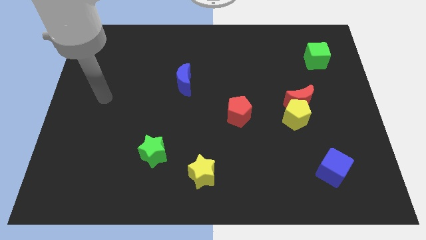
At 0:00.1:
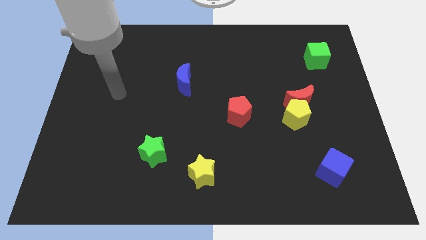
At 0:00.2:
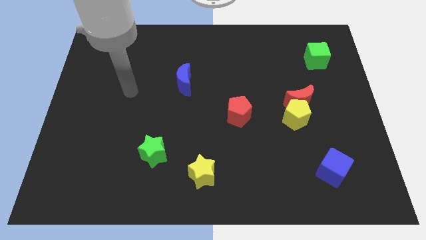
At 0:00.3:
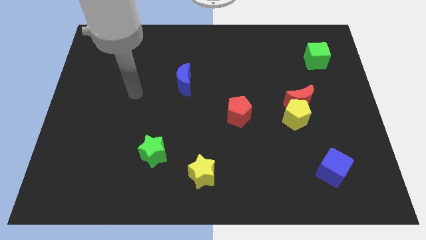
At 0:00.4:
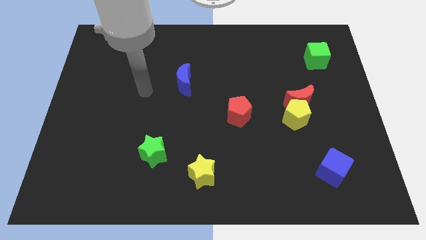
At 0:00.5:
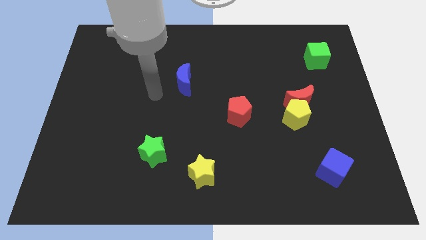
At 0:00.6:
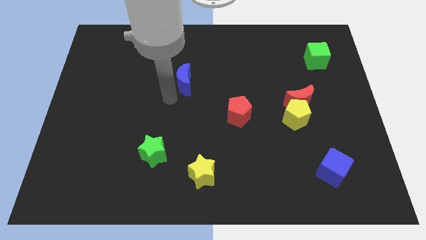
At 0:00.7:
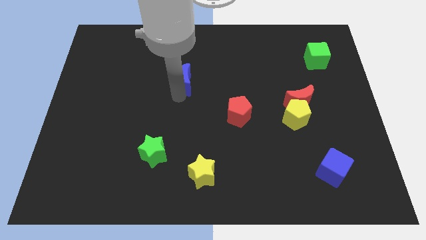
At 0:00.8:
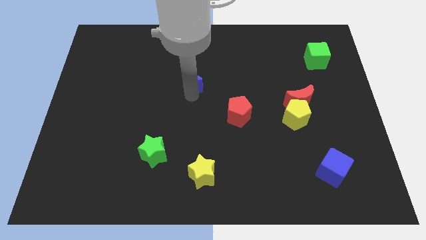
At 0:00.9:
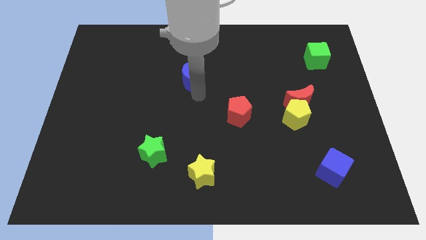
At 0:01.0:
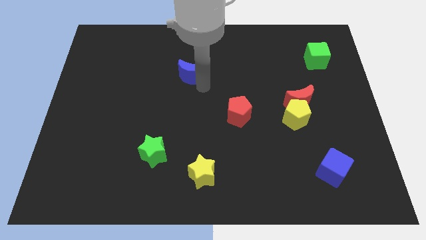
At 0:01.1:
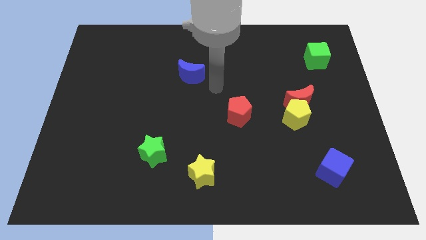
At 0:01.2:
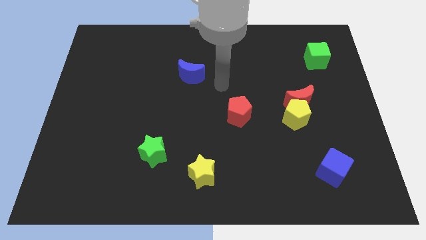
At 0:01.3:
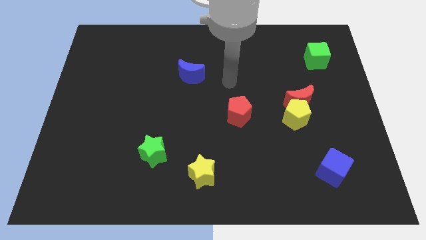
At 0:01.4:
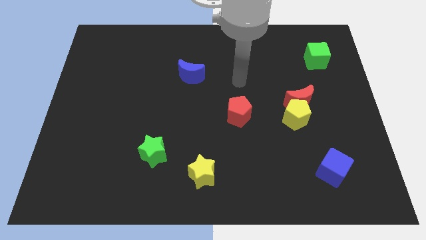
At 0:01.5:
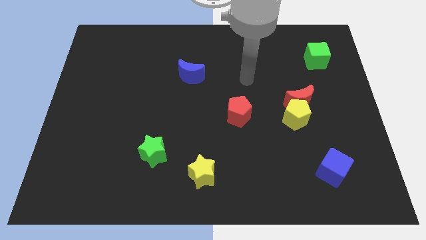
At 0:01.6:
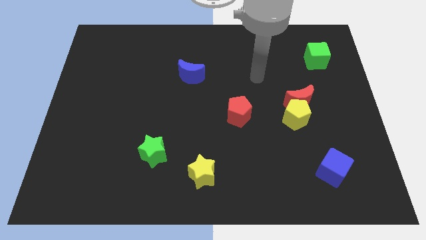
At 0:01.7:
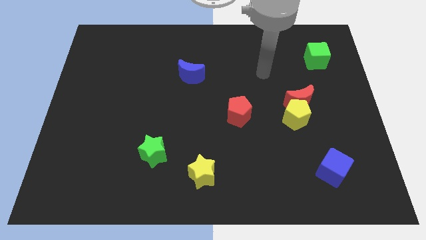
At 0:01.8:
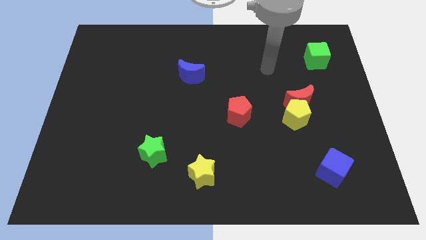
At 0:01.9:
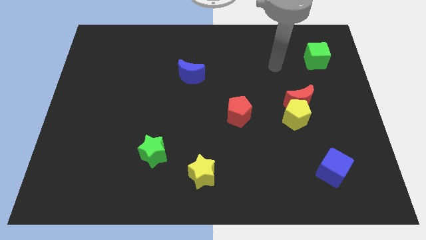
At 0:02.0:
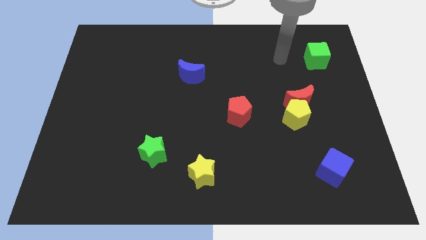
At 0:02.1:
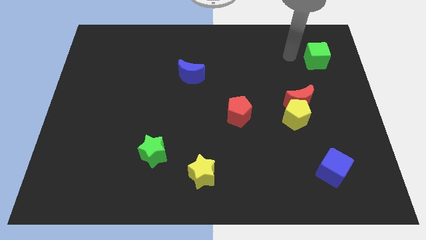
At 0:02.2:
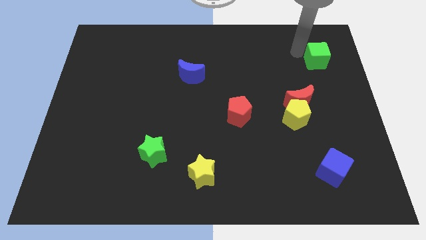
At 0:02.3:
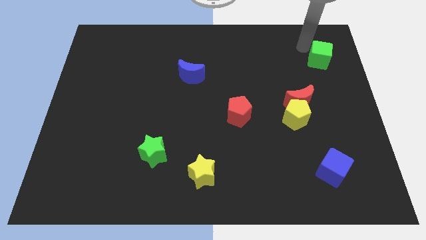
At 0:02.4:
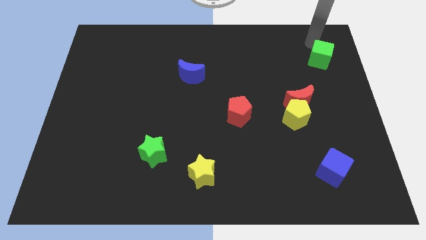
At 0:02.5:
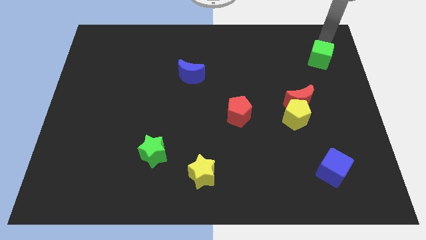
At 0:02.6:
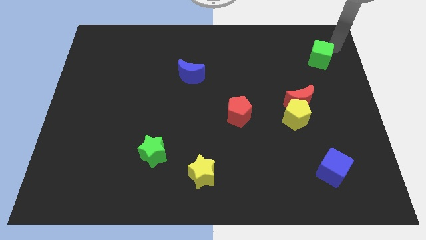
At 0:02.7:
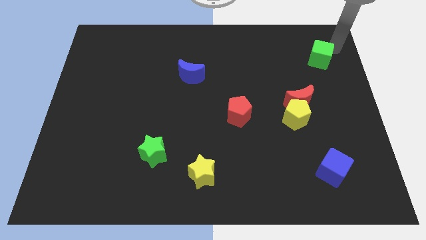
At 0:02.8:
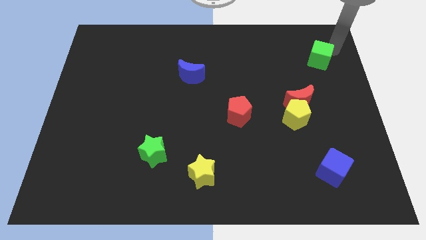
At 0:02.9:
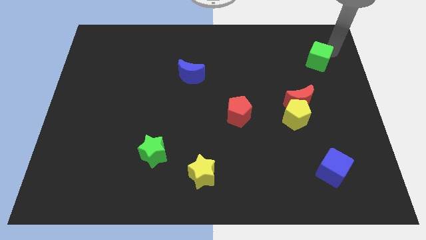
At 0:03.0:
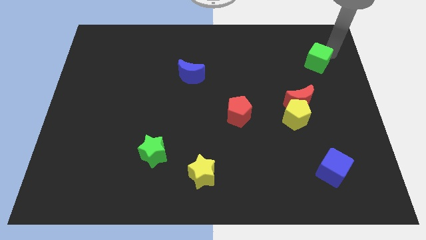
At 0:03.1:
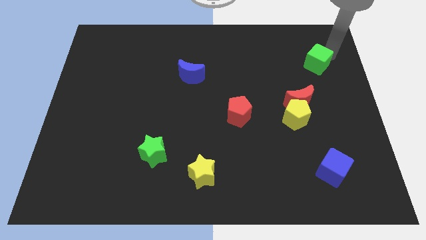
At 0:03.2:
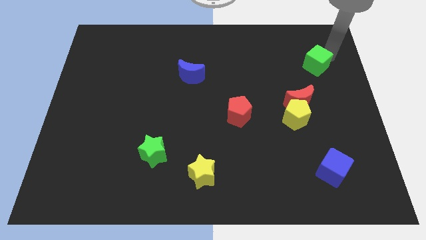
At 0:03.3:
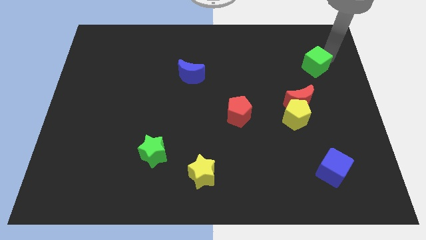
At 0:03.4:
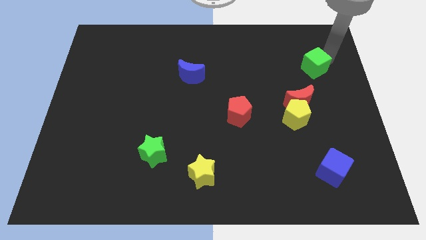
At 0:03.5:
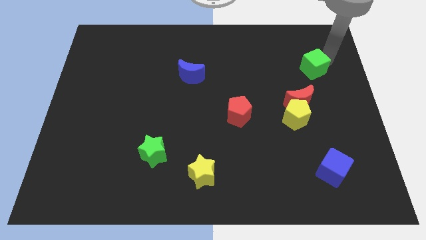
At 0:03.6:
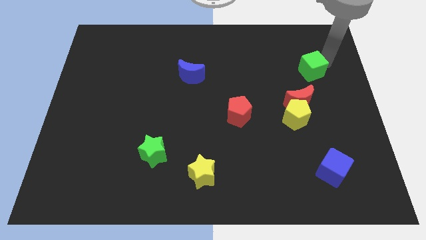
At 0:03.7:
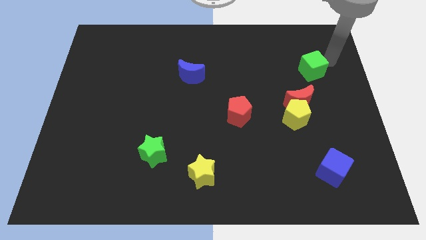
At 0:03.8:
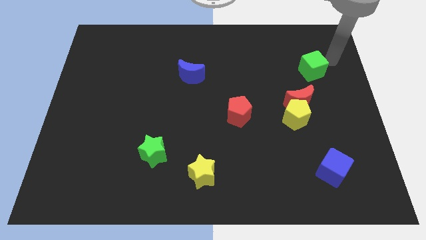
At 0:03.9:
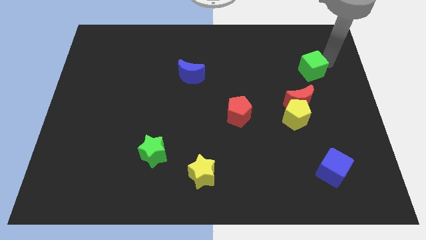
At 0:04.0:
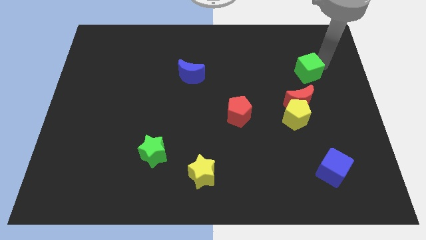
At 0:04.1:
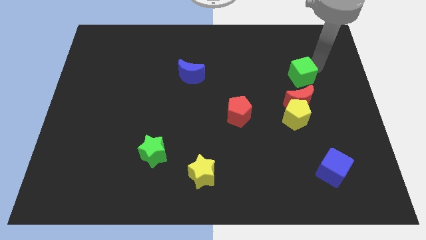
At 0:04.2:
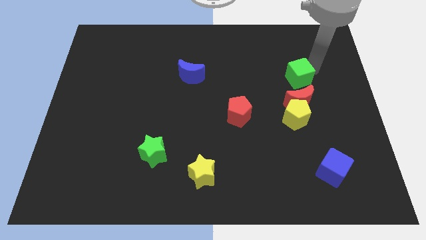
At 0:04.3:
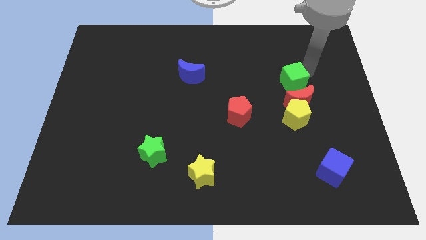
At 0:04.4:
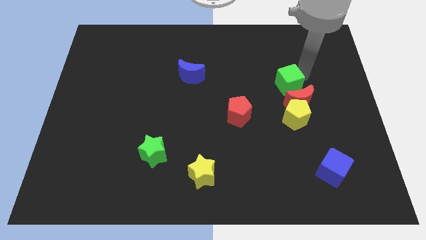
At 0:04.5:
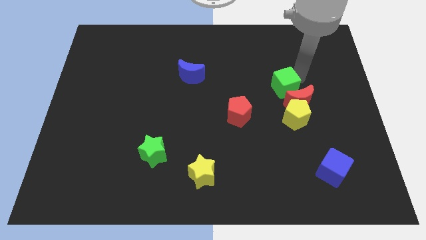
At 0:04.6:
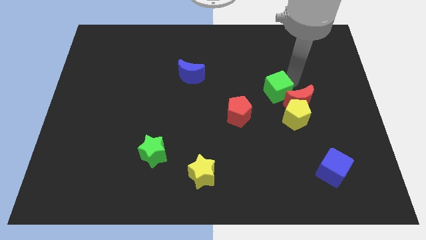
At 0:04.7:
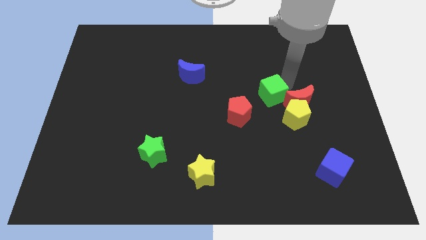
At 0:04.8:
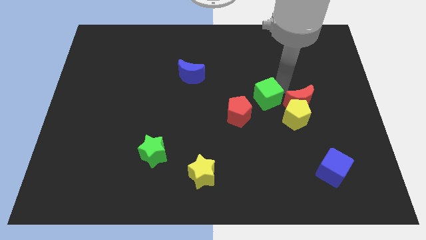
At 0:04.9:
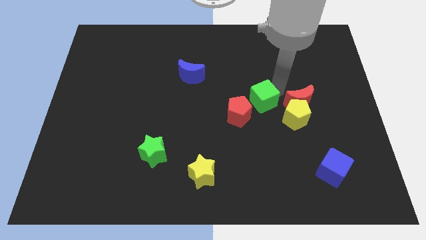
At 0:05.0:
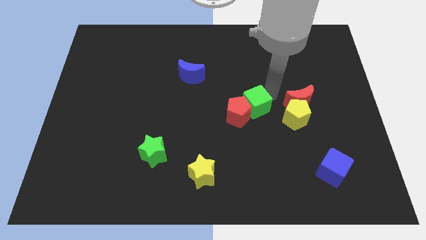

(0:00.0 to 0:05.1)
slide the green cube close to the red pentagon

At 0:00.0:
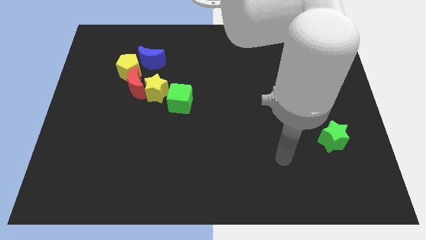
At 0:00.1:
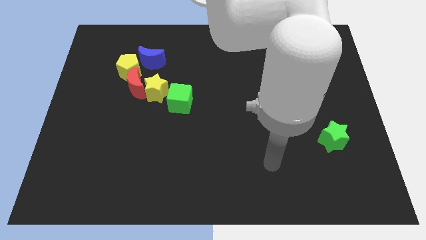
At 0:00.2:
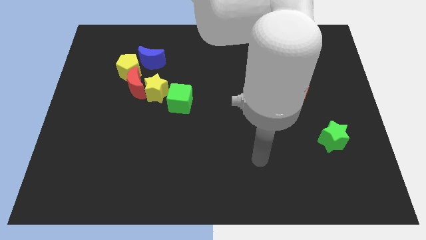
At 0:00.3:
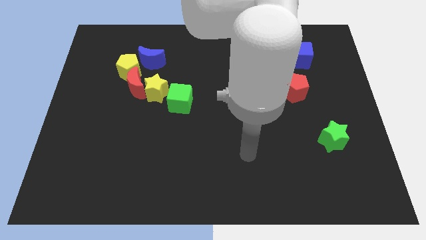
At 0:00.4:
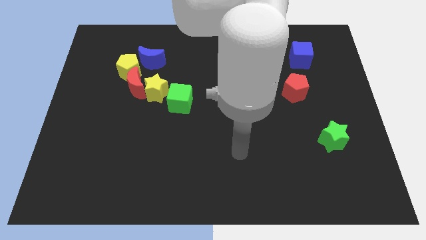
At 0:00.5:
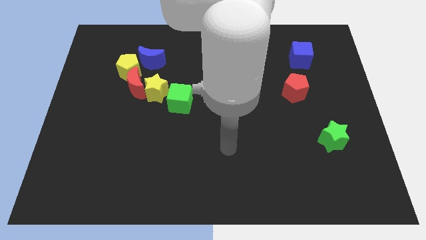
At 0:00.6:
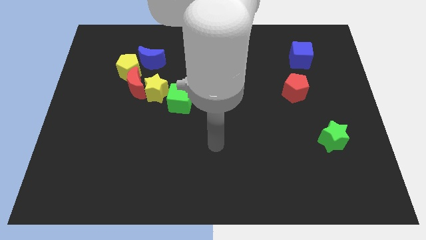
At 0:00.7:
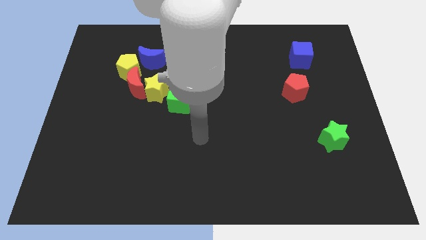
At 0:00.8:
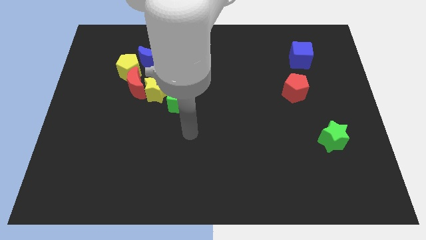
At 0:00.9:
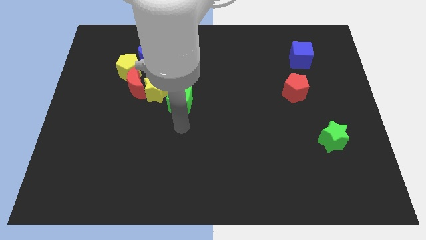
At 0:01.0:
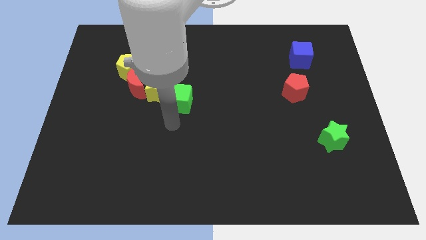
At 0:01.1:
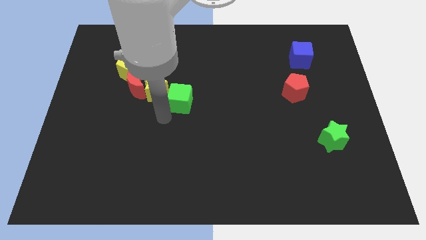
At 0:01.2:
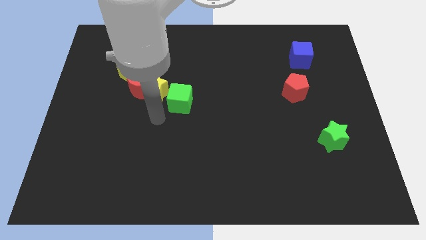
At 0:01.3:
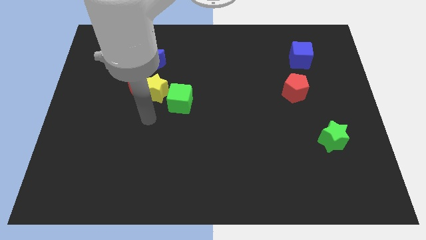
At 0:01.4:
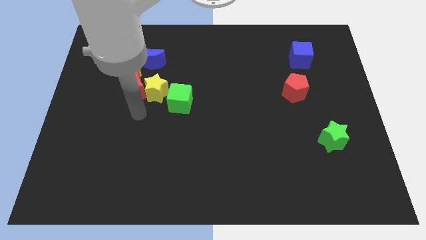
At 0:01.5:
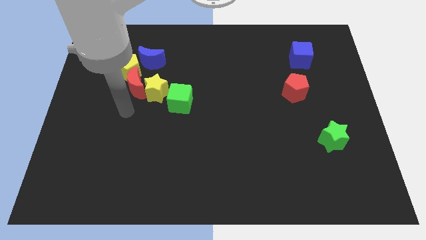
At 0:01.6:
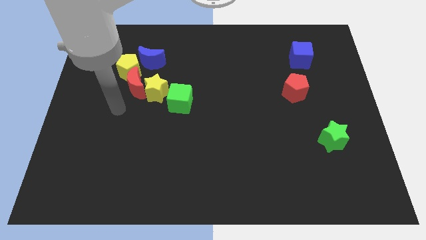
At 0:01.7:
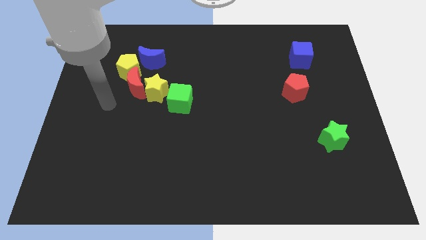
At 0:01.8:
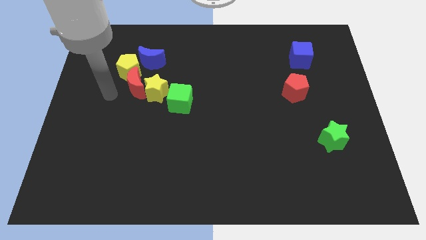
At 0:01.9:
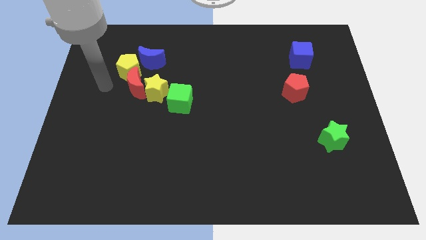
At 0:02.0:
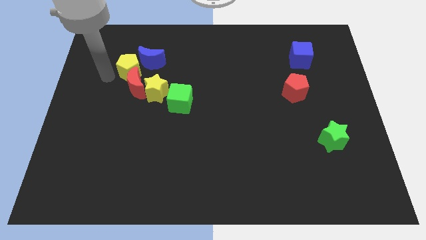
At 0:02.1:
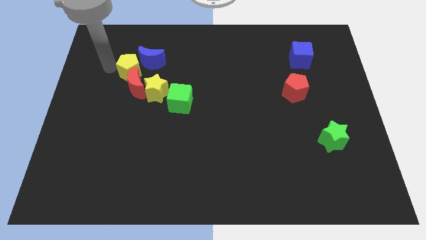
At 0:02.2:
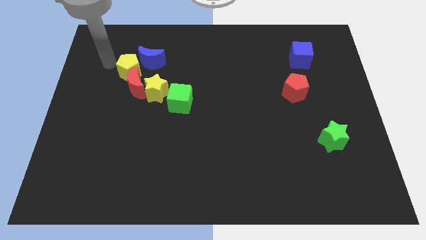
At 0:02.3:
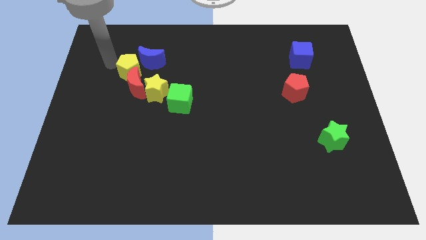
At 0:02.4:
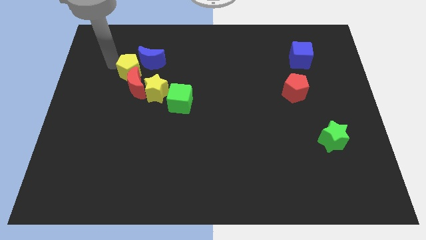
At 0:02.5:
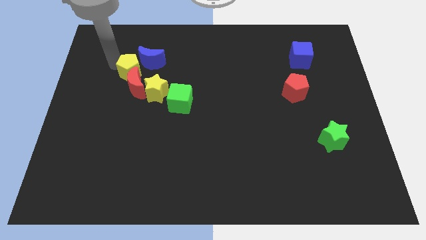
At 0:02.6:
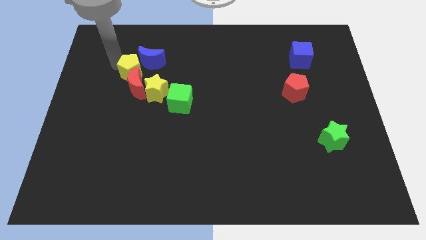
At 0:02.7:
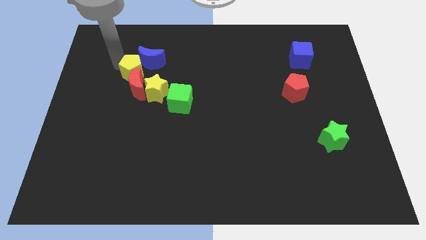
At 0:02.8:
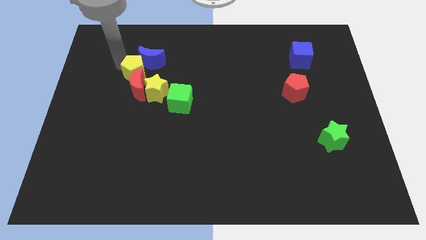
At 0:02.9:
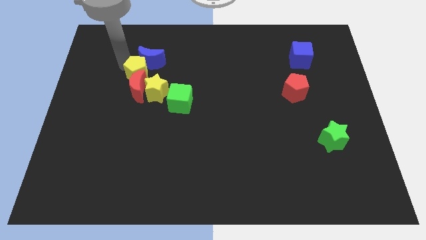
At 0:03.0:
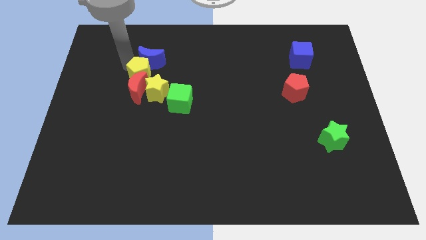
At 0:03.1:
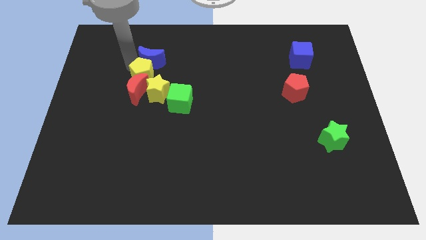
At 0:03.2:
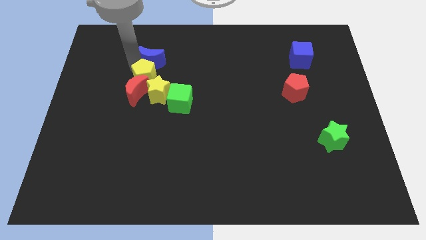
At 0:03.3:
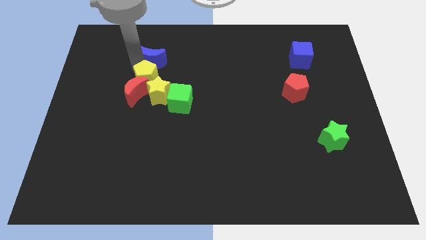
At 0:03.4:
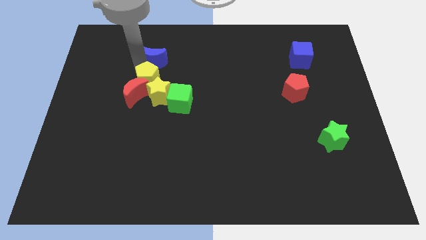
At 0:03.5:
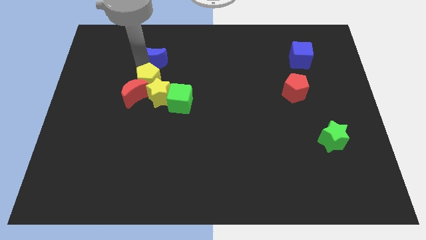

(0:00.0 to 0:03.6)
put the yellow pentagon to the yellow star
